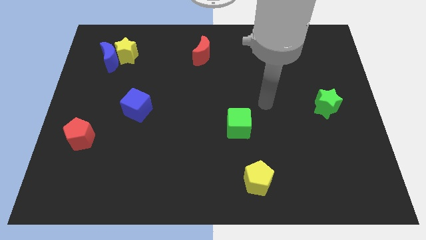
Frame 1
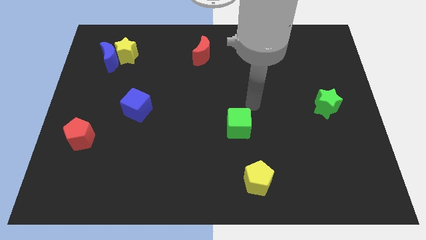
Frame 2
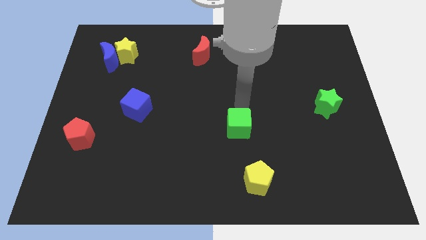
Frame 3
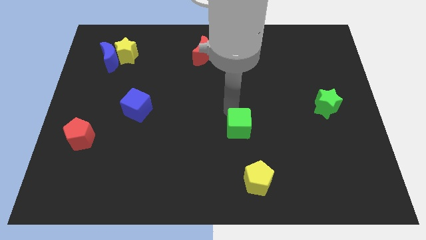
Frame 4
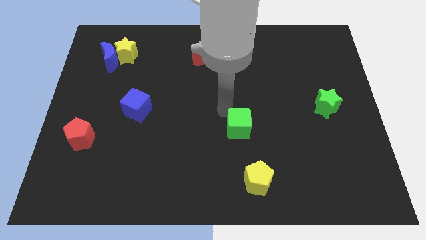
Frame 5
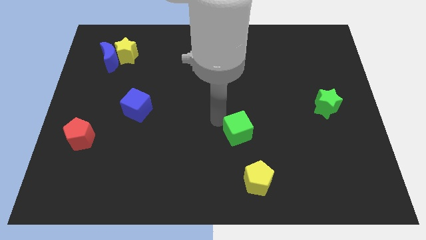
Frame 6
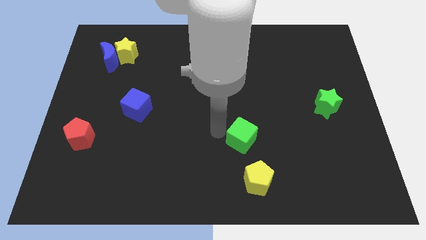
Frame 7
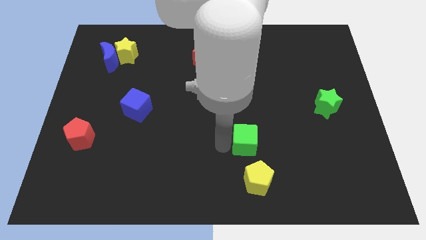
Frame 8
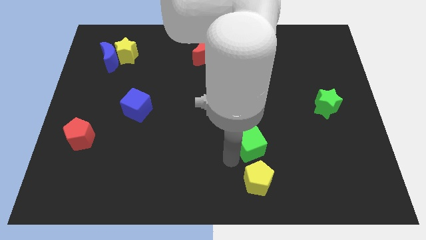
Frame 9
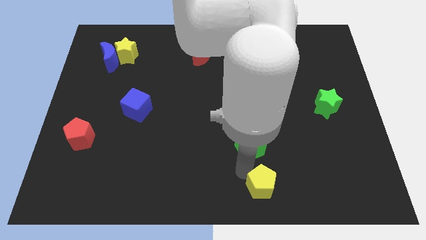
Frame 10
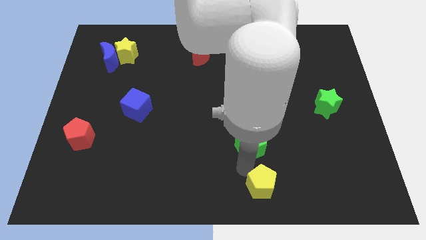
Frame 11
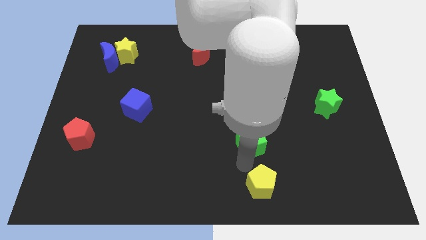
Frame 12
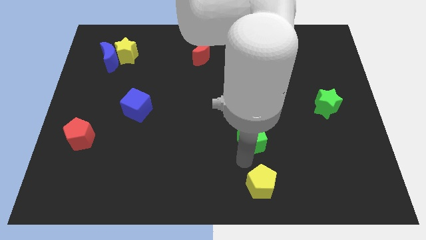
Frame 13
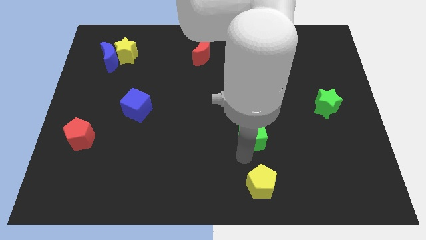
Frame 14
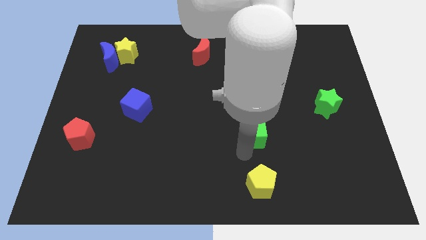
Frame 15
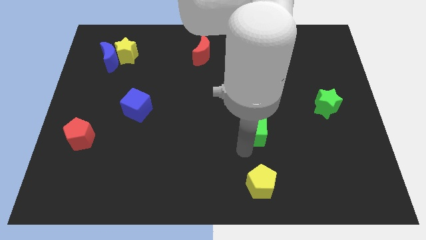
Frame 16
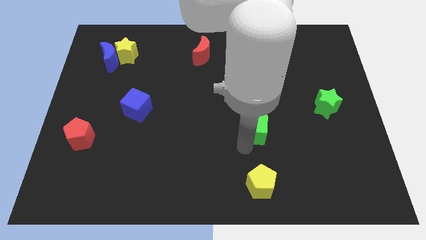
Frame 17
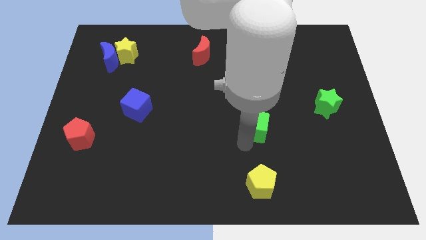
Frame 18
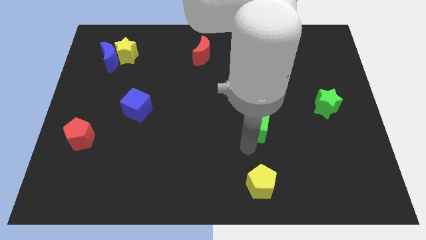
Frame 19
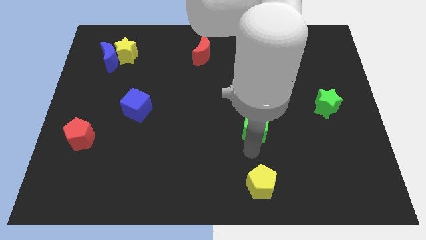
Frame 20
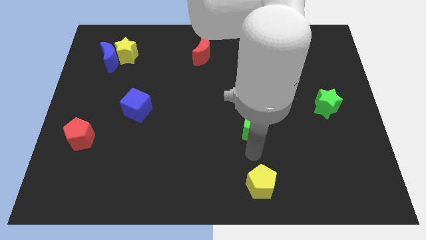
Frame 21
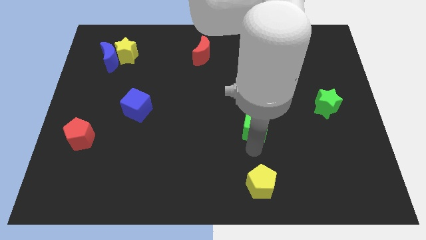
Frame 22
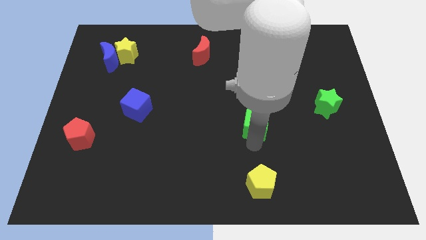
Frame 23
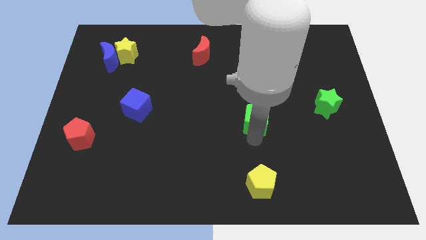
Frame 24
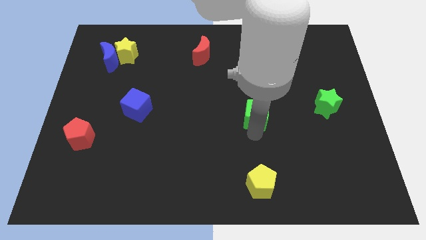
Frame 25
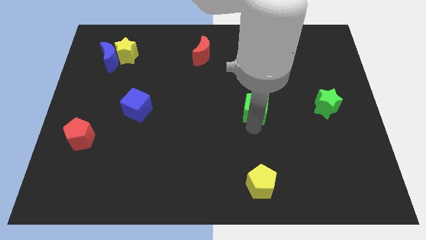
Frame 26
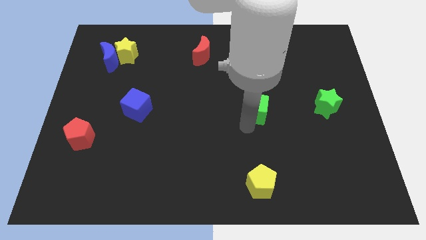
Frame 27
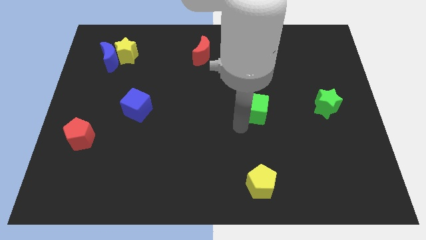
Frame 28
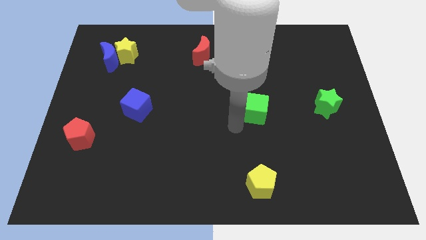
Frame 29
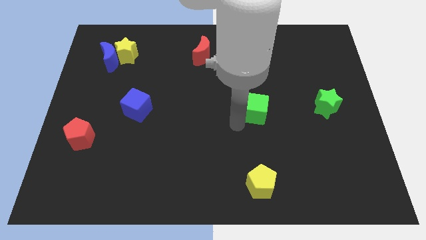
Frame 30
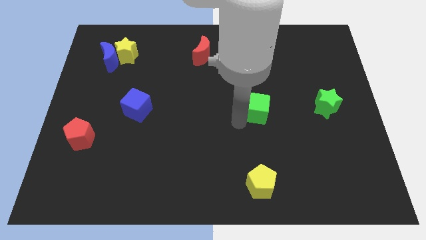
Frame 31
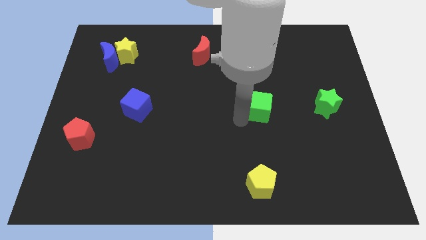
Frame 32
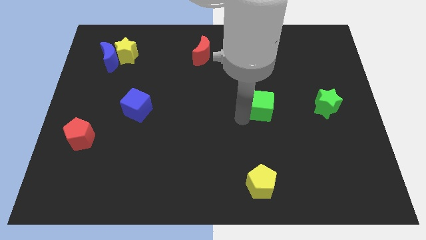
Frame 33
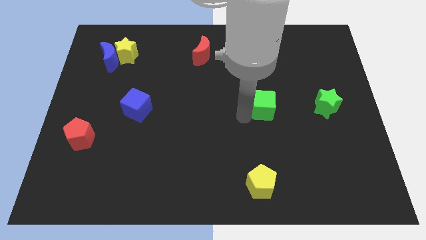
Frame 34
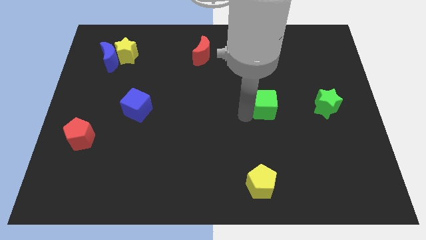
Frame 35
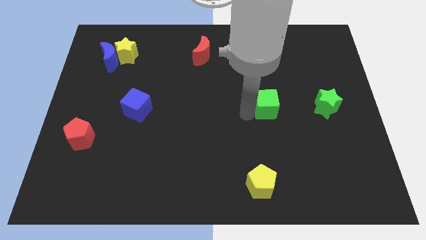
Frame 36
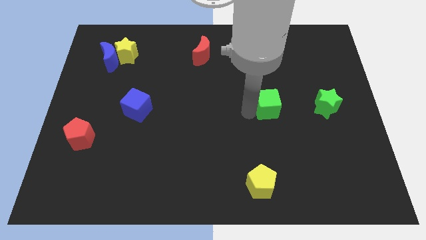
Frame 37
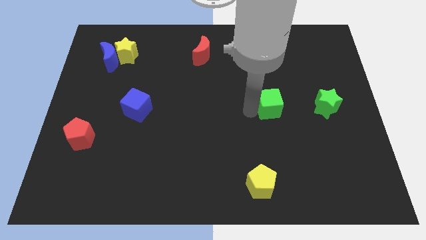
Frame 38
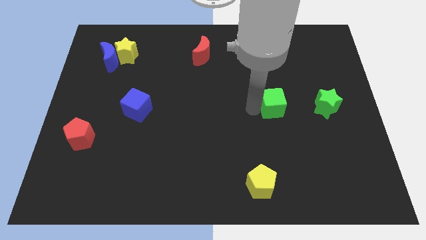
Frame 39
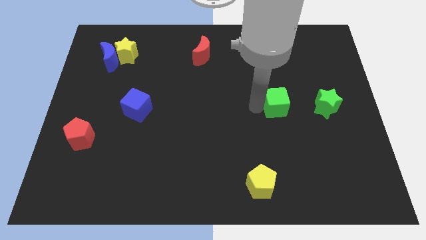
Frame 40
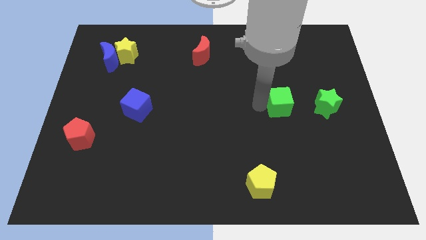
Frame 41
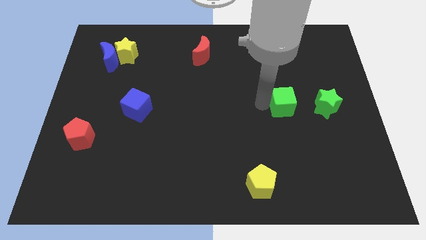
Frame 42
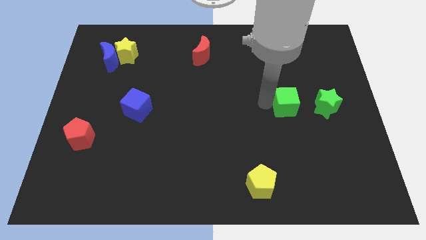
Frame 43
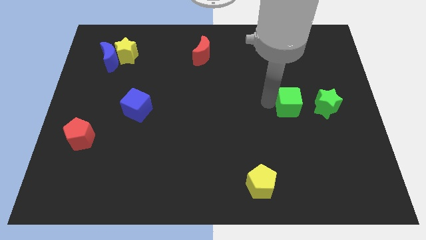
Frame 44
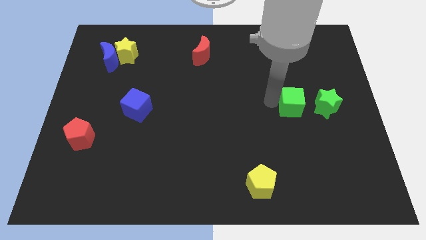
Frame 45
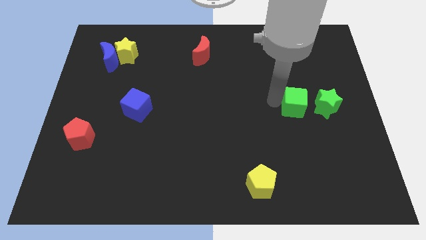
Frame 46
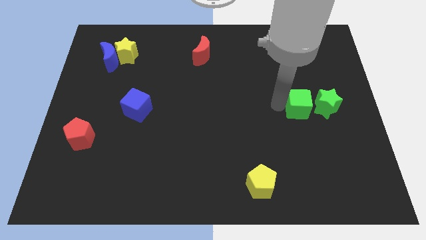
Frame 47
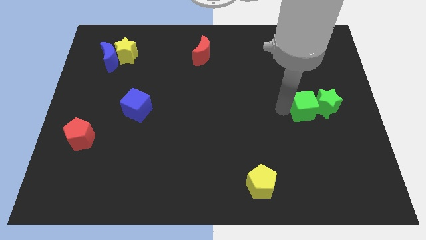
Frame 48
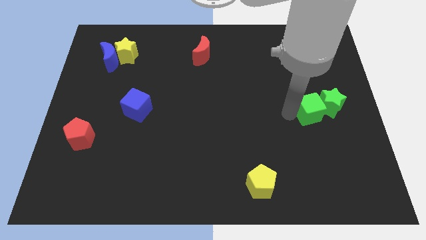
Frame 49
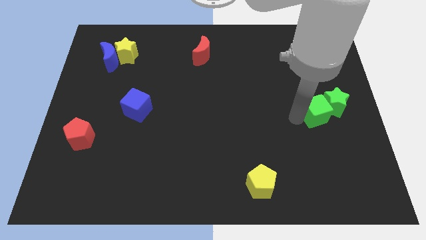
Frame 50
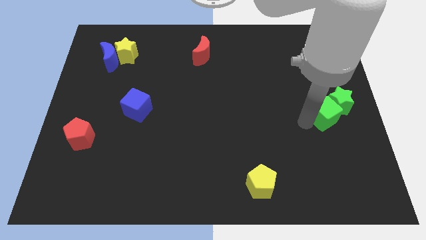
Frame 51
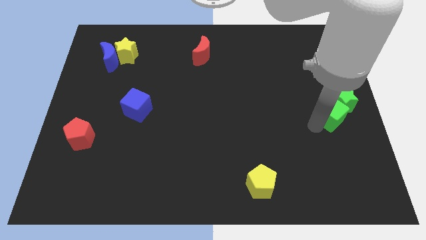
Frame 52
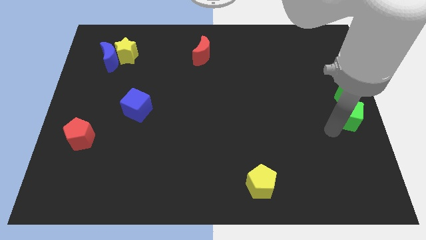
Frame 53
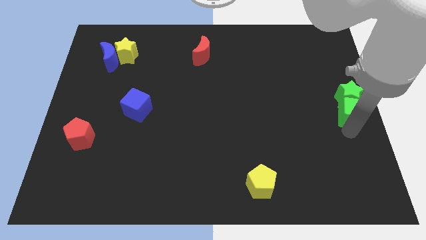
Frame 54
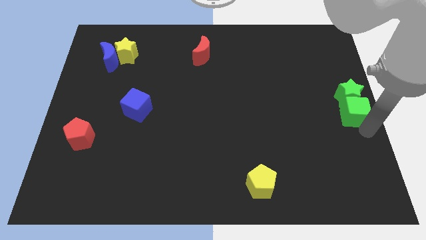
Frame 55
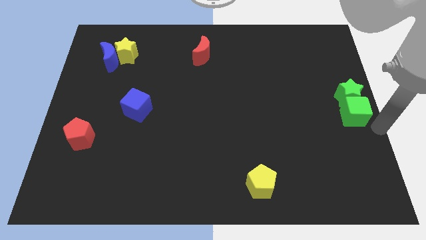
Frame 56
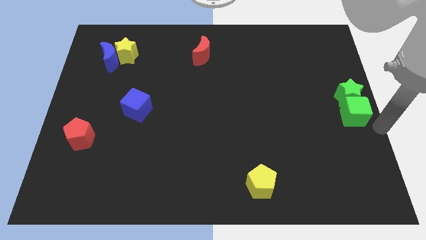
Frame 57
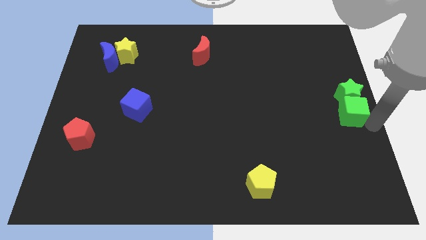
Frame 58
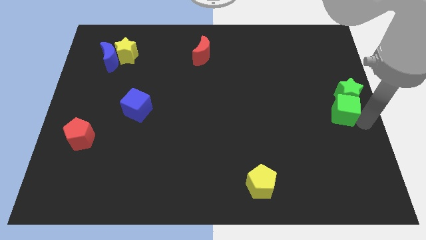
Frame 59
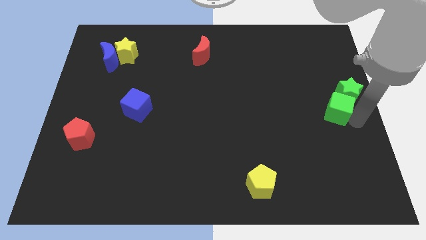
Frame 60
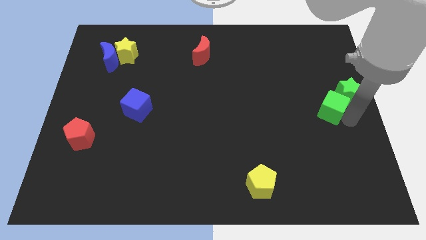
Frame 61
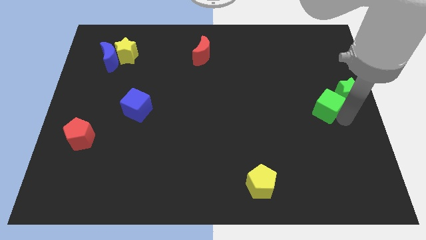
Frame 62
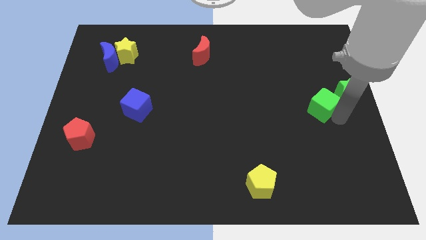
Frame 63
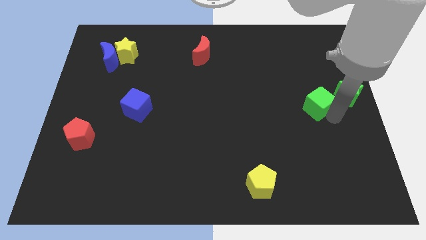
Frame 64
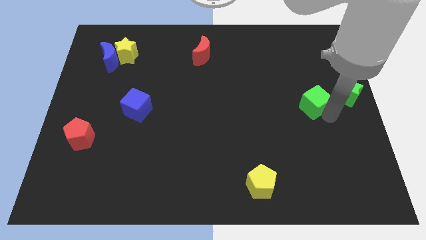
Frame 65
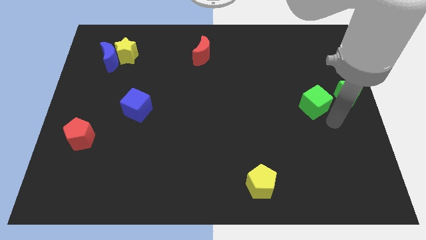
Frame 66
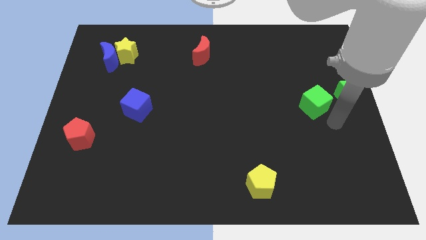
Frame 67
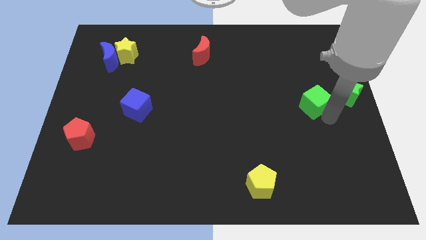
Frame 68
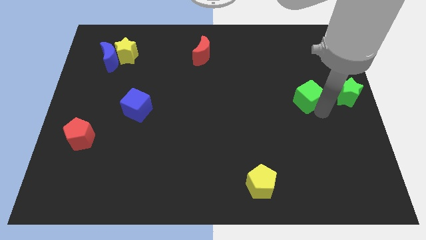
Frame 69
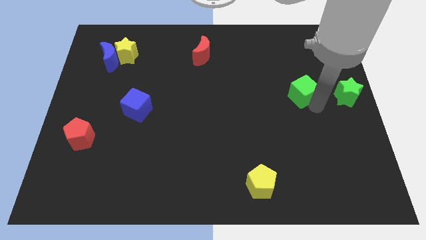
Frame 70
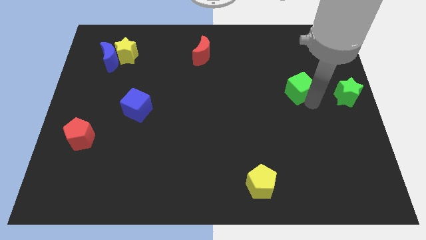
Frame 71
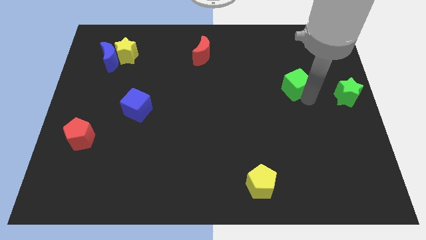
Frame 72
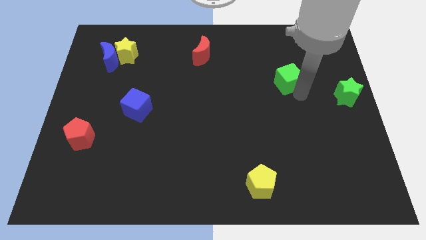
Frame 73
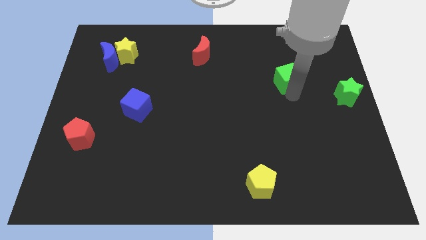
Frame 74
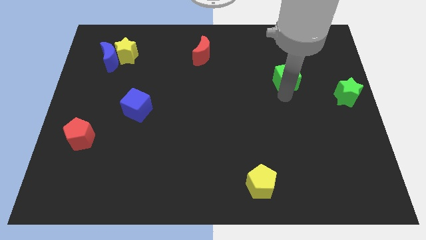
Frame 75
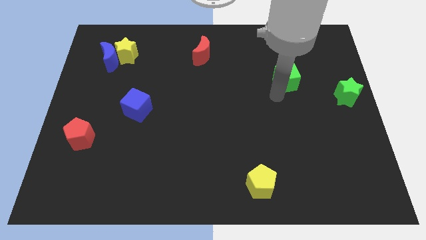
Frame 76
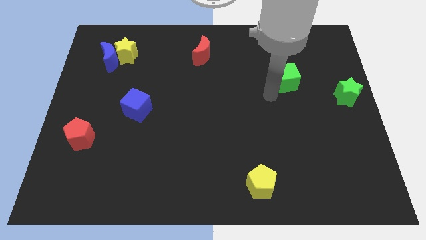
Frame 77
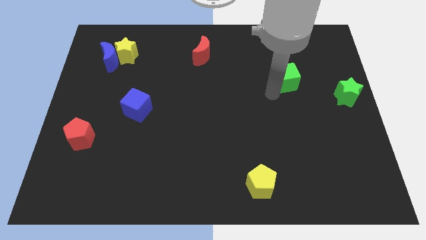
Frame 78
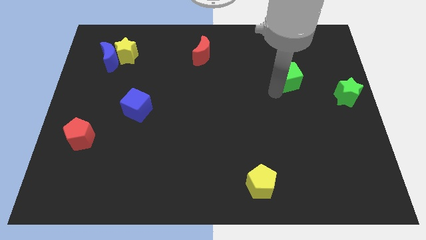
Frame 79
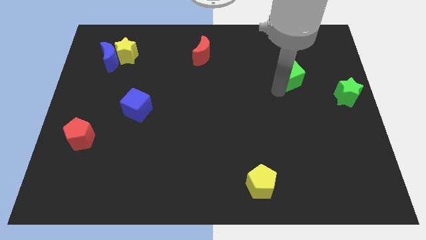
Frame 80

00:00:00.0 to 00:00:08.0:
push the green cube upwards and to the right
